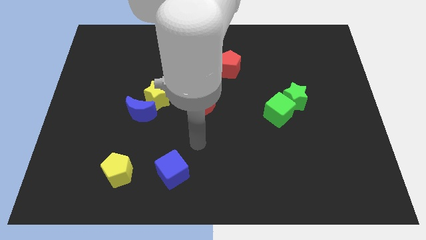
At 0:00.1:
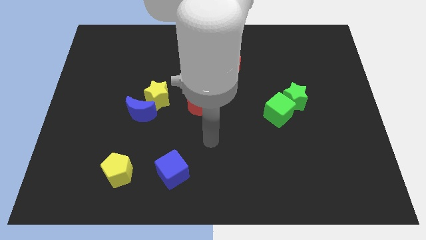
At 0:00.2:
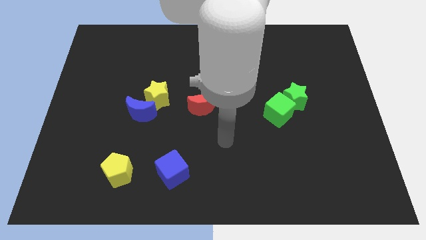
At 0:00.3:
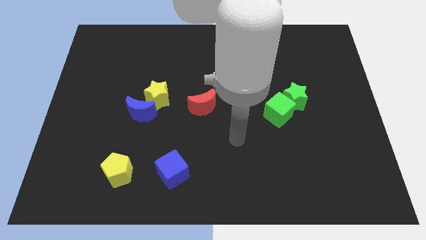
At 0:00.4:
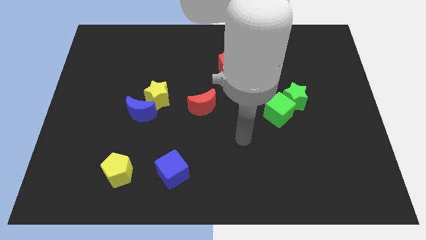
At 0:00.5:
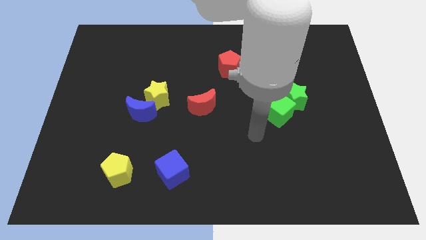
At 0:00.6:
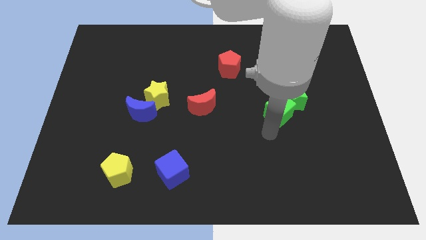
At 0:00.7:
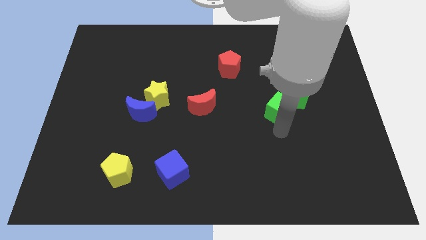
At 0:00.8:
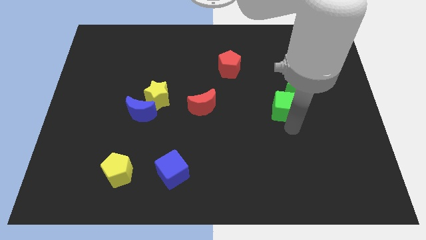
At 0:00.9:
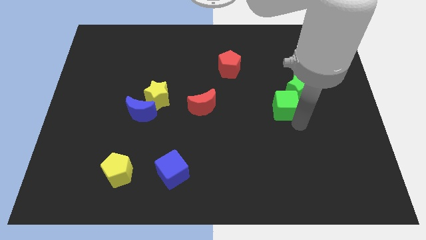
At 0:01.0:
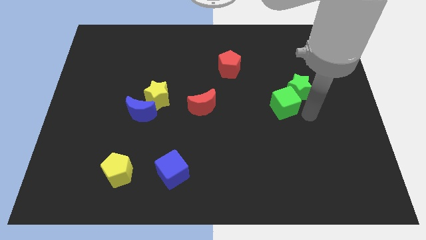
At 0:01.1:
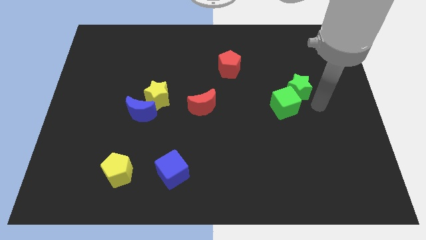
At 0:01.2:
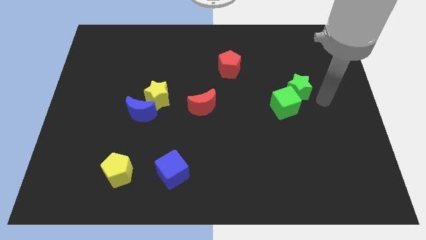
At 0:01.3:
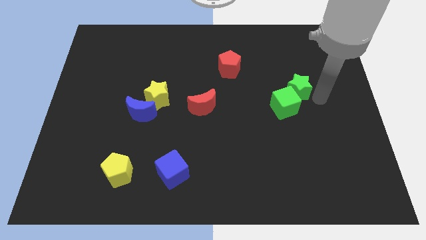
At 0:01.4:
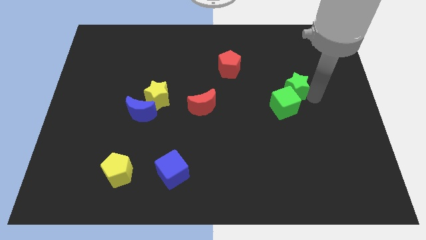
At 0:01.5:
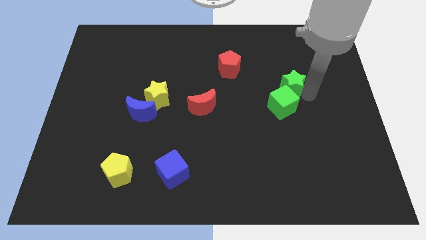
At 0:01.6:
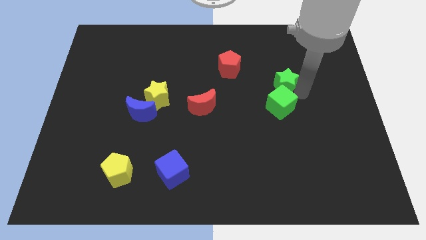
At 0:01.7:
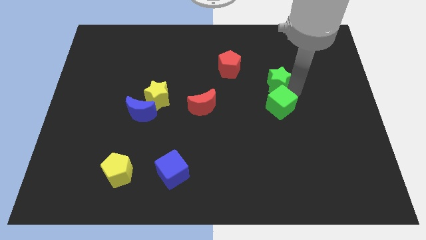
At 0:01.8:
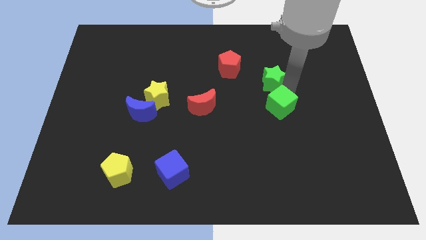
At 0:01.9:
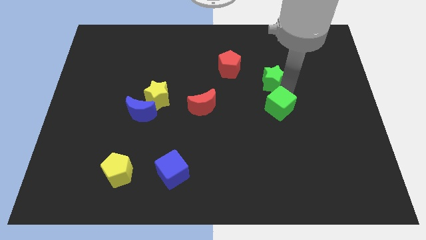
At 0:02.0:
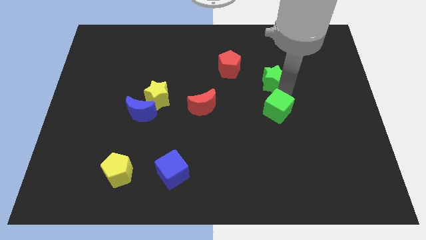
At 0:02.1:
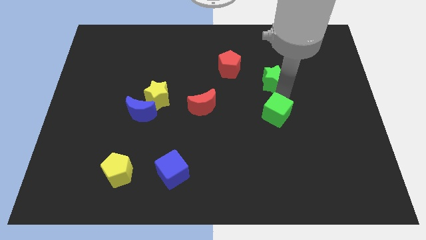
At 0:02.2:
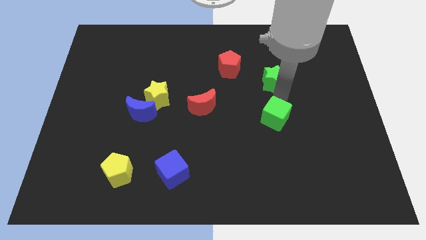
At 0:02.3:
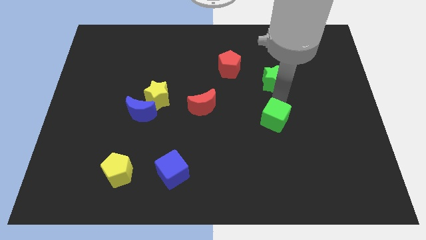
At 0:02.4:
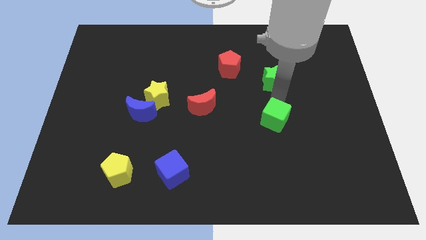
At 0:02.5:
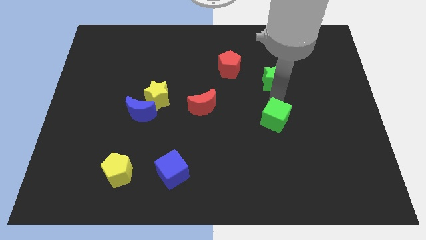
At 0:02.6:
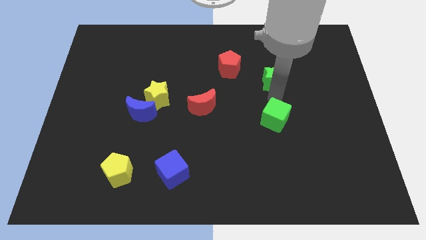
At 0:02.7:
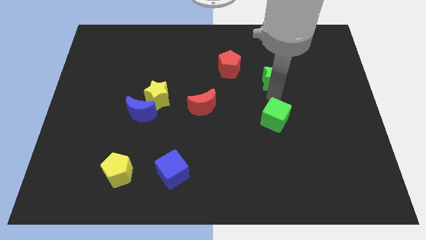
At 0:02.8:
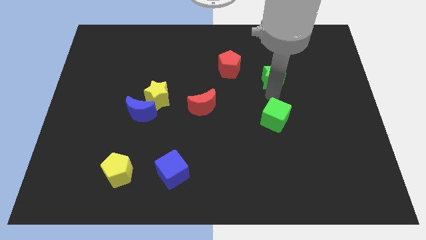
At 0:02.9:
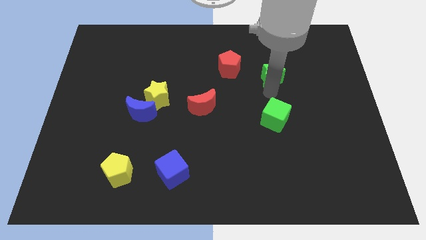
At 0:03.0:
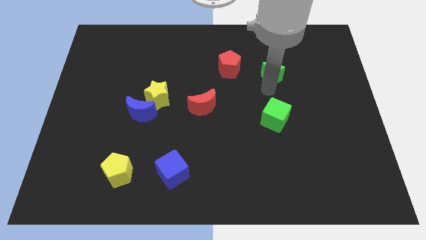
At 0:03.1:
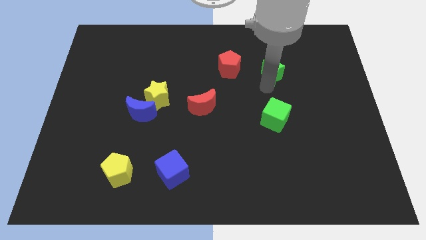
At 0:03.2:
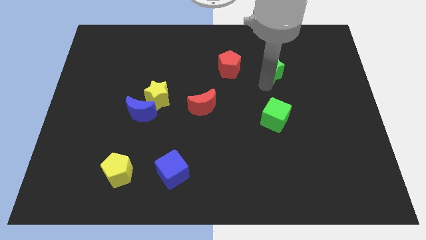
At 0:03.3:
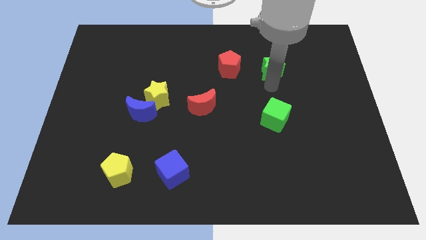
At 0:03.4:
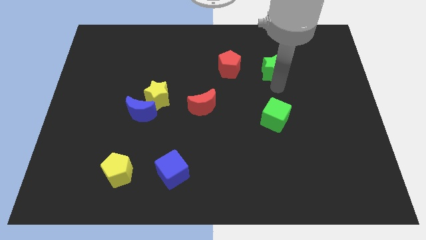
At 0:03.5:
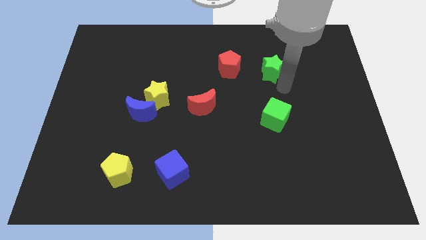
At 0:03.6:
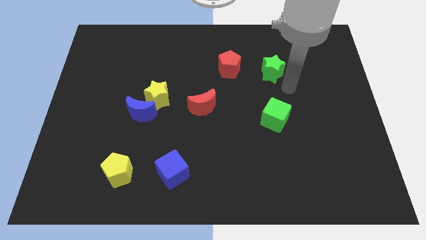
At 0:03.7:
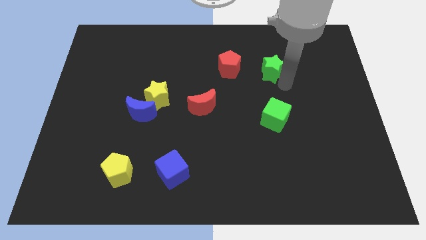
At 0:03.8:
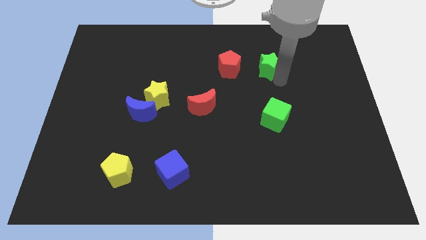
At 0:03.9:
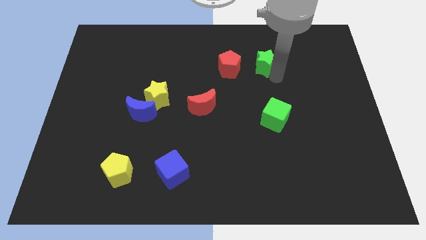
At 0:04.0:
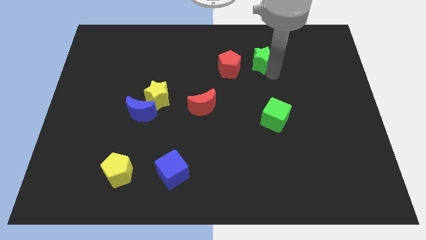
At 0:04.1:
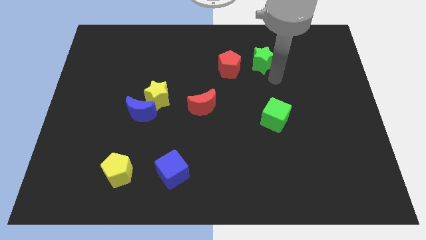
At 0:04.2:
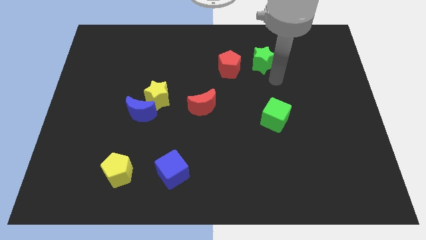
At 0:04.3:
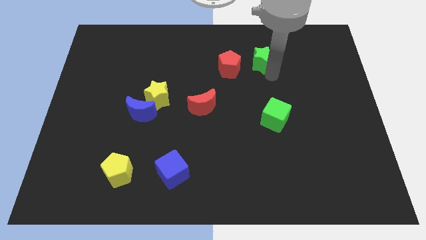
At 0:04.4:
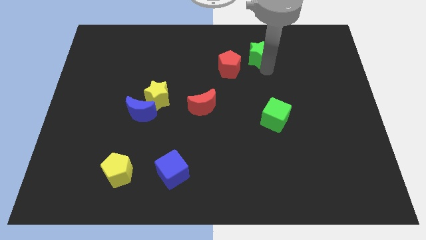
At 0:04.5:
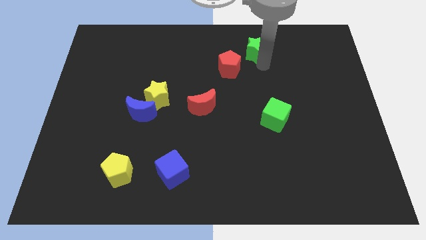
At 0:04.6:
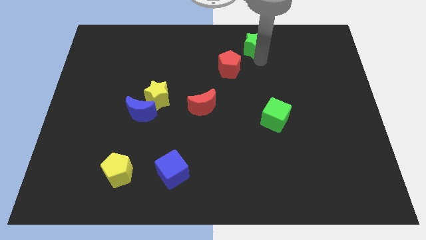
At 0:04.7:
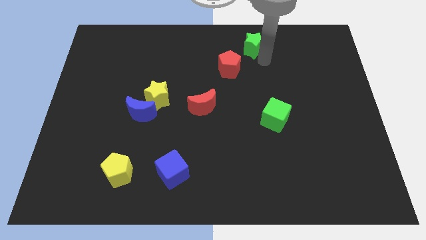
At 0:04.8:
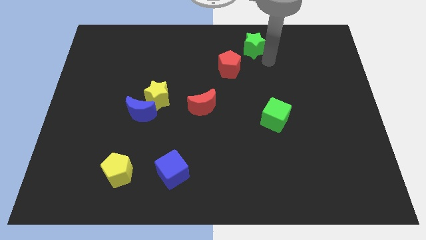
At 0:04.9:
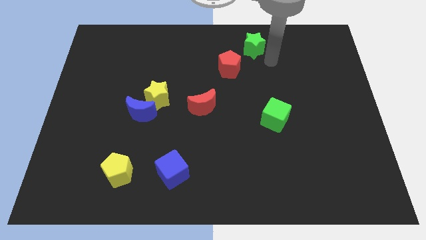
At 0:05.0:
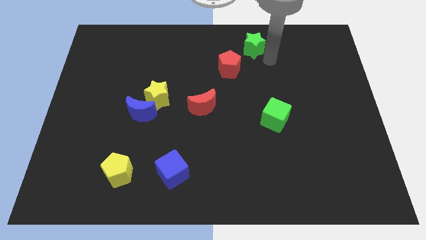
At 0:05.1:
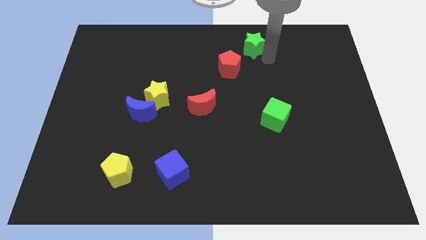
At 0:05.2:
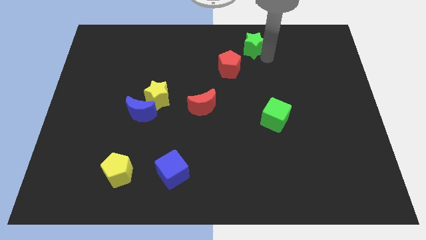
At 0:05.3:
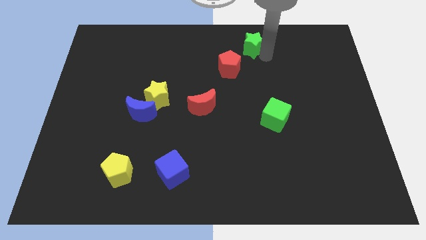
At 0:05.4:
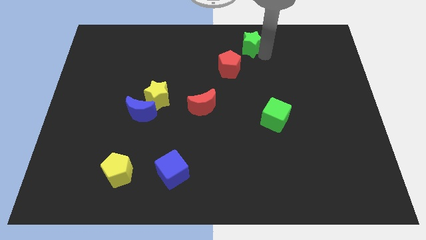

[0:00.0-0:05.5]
slide the green star to the top side

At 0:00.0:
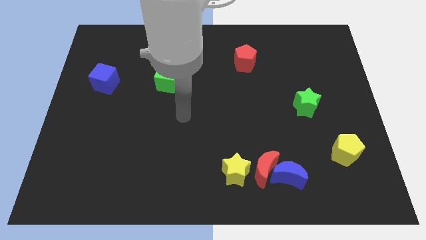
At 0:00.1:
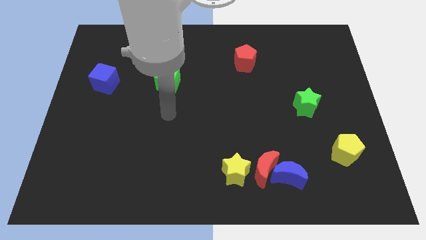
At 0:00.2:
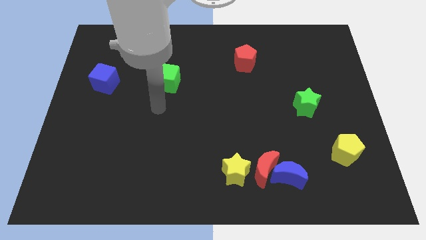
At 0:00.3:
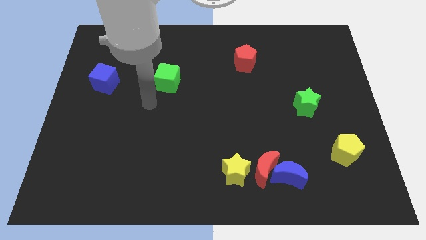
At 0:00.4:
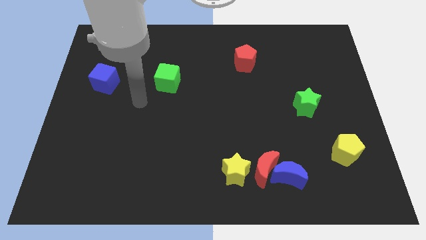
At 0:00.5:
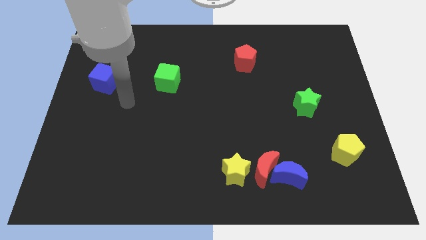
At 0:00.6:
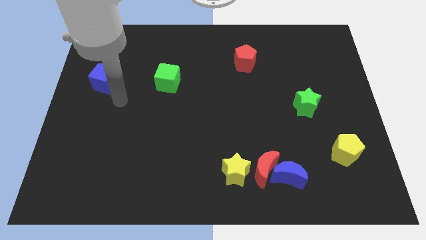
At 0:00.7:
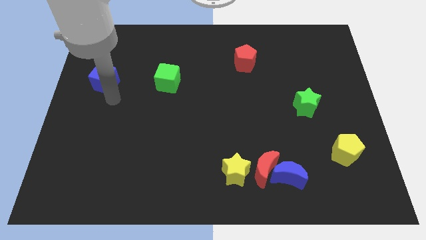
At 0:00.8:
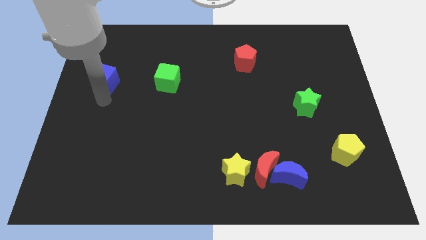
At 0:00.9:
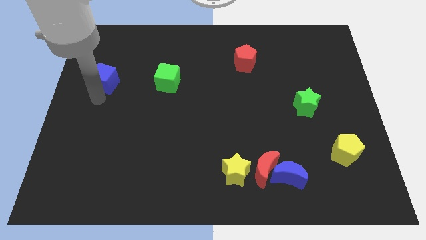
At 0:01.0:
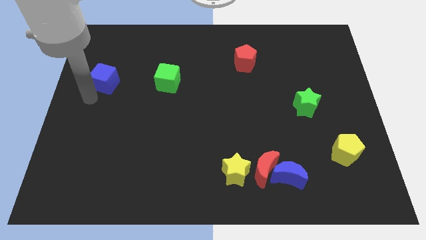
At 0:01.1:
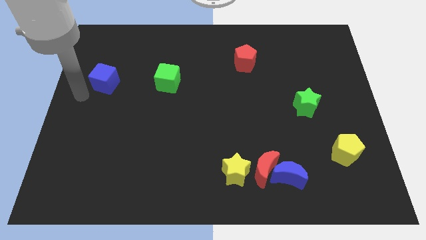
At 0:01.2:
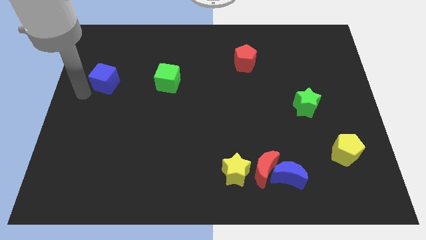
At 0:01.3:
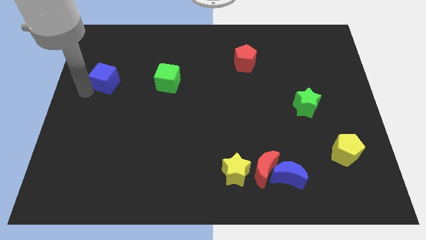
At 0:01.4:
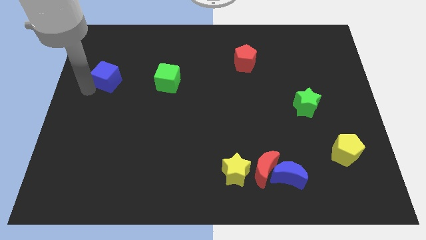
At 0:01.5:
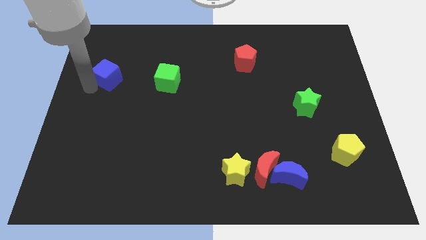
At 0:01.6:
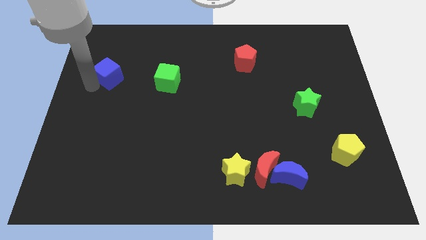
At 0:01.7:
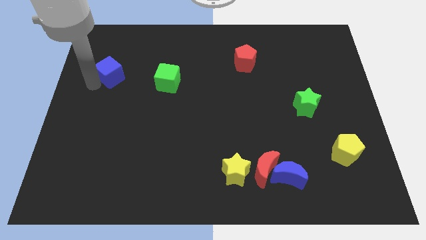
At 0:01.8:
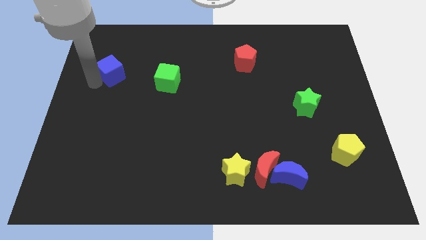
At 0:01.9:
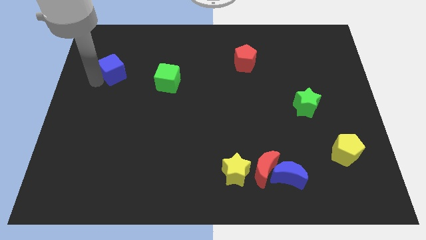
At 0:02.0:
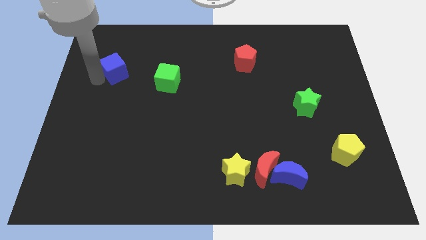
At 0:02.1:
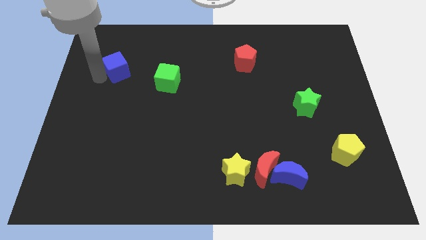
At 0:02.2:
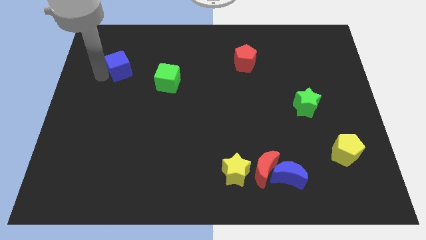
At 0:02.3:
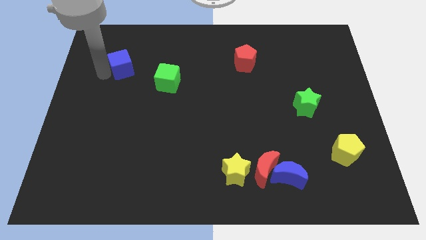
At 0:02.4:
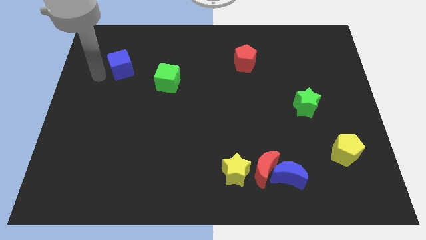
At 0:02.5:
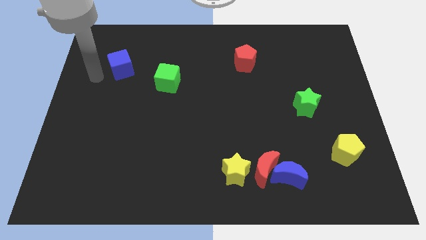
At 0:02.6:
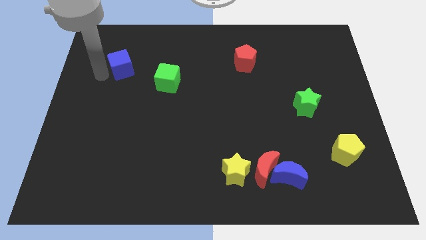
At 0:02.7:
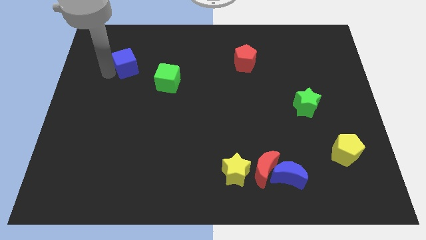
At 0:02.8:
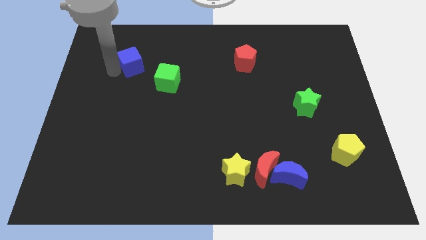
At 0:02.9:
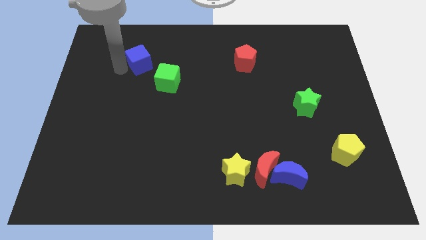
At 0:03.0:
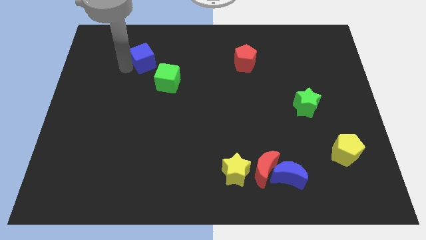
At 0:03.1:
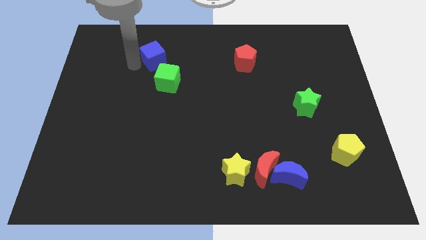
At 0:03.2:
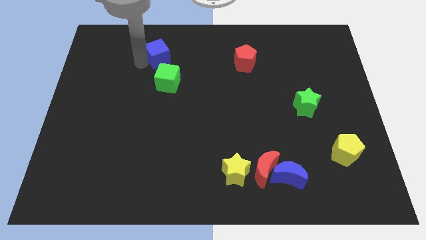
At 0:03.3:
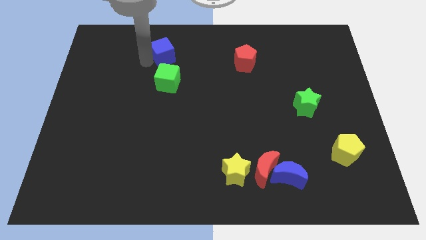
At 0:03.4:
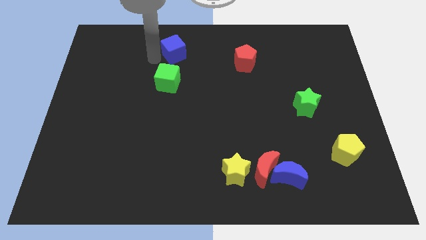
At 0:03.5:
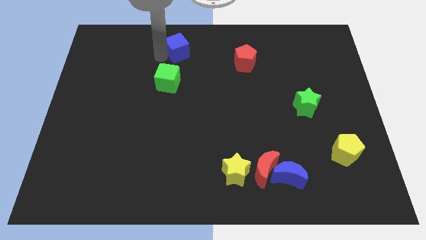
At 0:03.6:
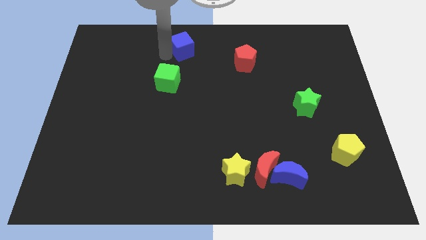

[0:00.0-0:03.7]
slide the blue cube to the towards your base
